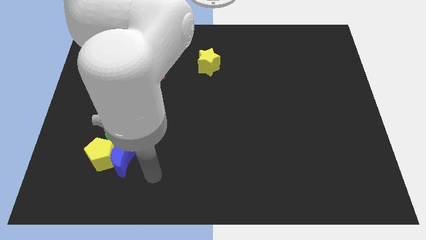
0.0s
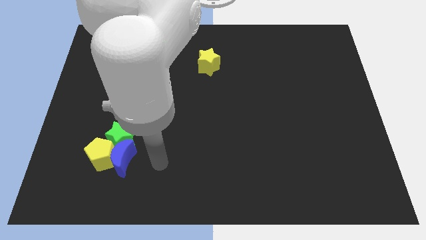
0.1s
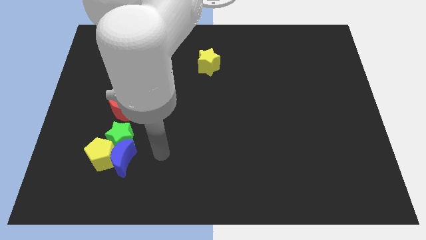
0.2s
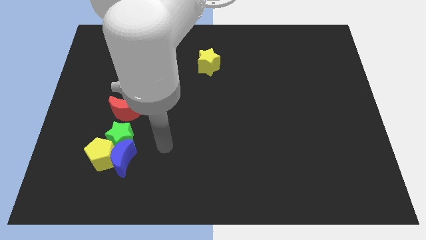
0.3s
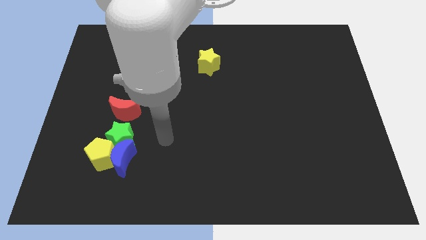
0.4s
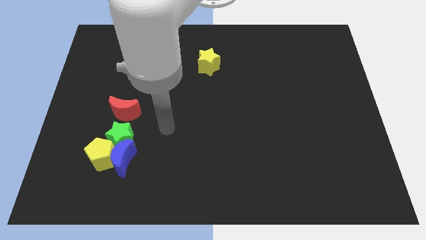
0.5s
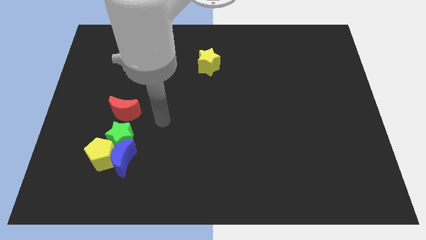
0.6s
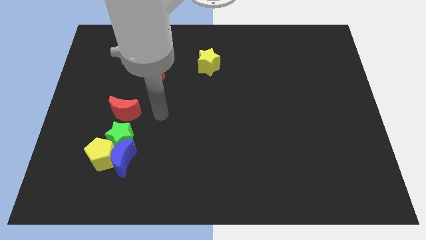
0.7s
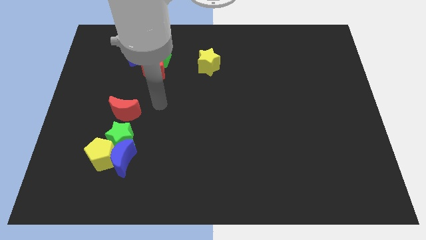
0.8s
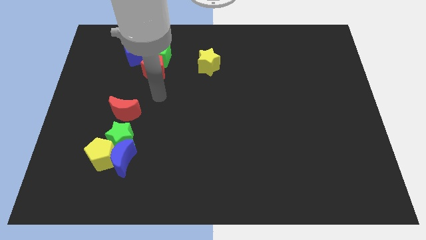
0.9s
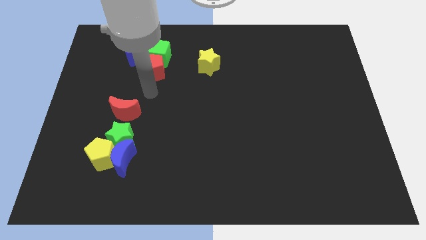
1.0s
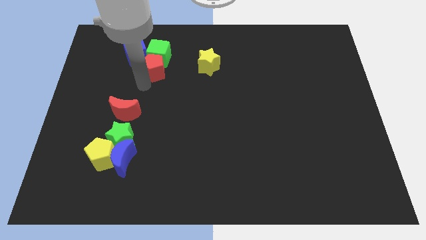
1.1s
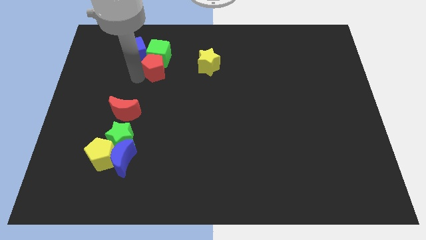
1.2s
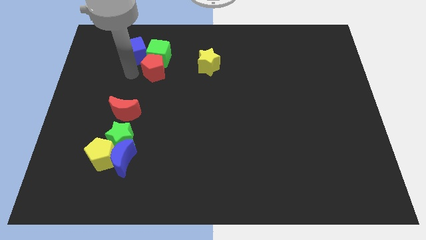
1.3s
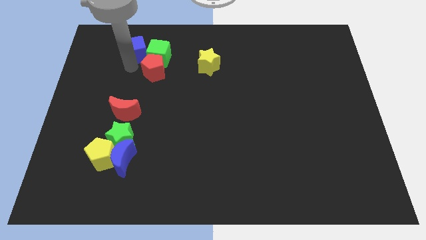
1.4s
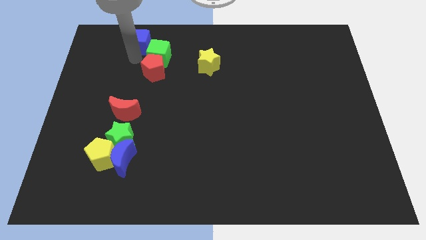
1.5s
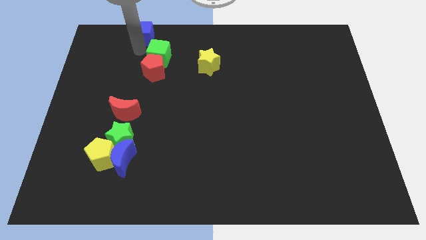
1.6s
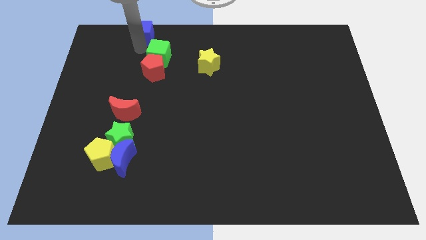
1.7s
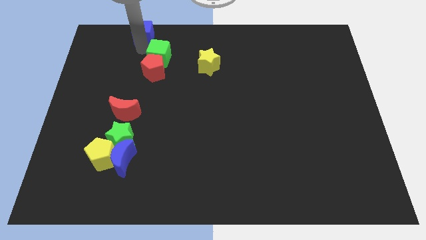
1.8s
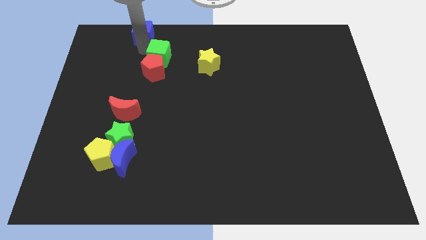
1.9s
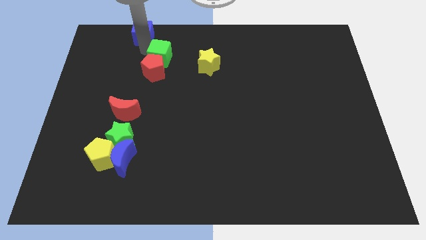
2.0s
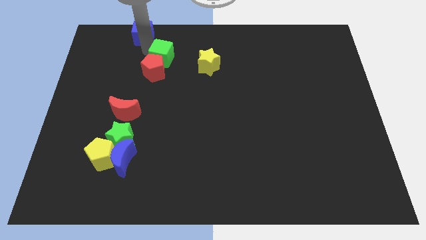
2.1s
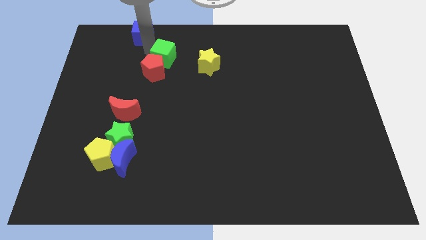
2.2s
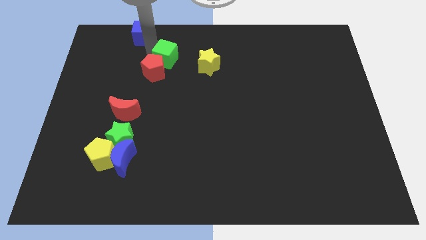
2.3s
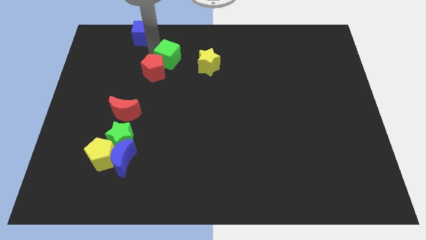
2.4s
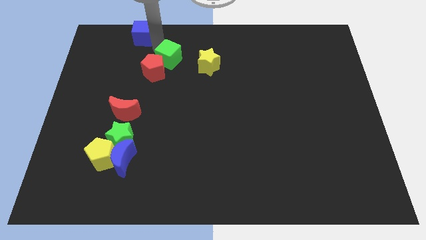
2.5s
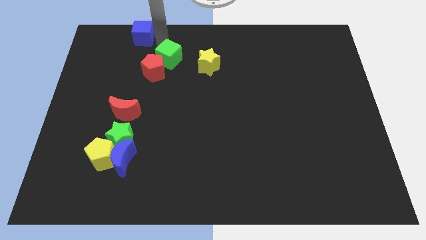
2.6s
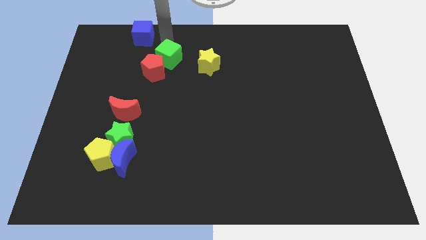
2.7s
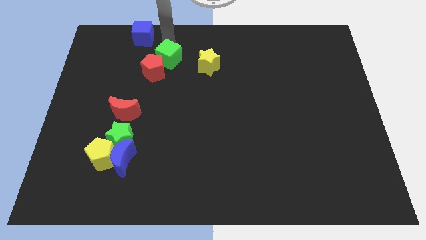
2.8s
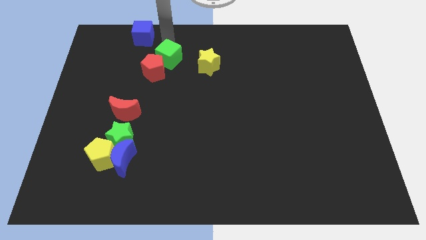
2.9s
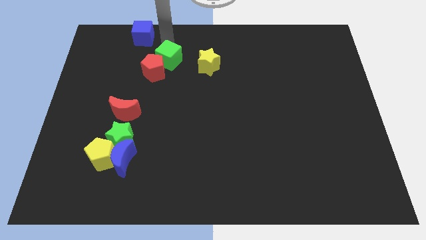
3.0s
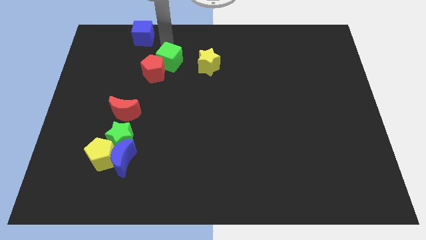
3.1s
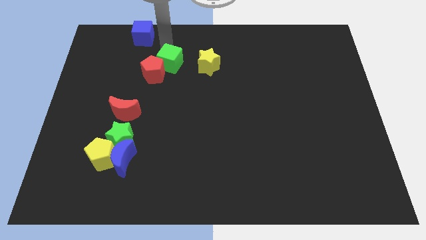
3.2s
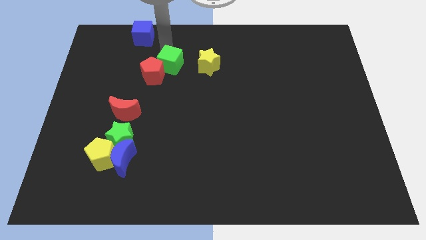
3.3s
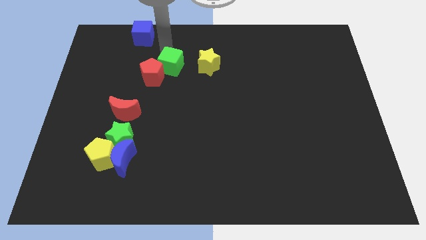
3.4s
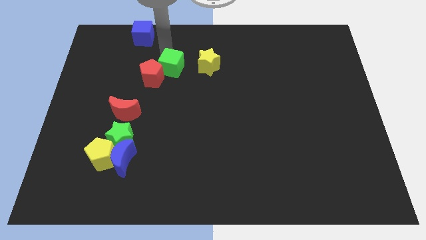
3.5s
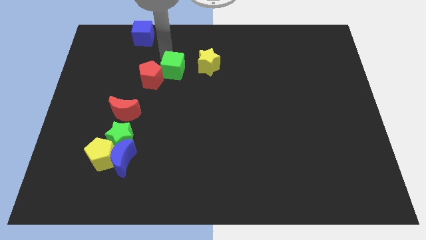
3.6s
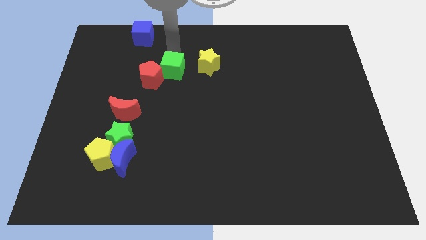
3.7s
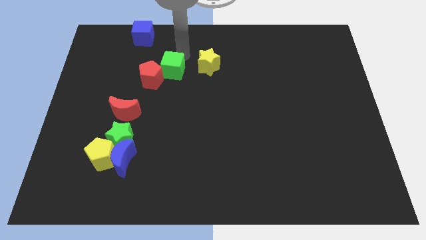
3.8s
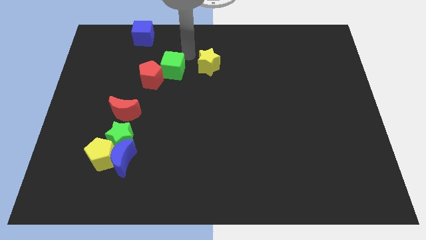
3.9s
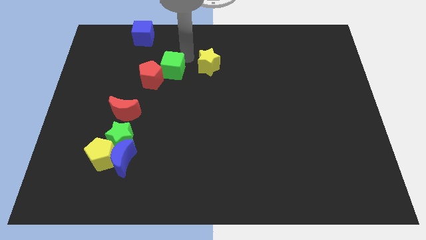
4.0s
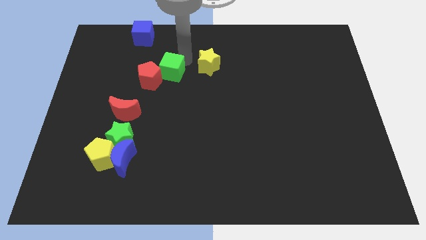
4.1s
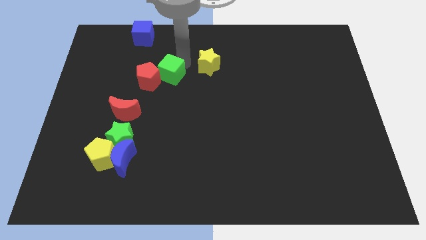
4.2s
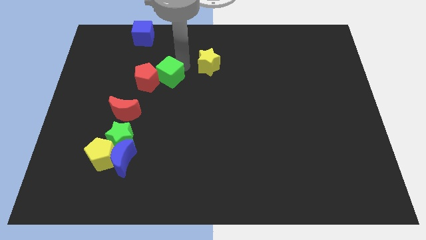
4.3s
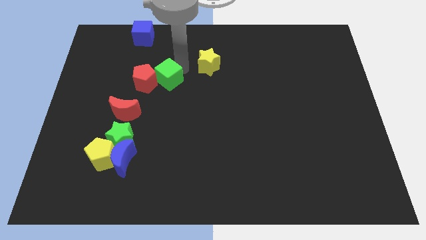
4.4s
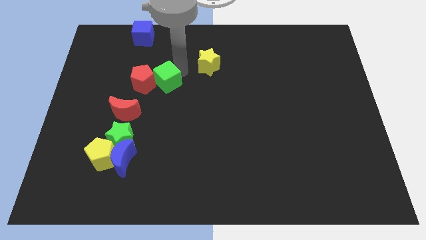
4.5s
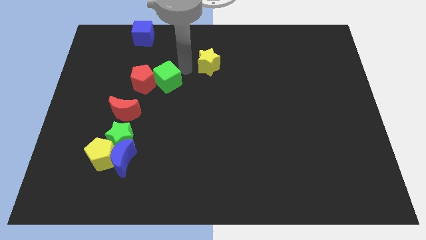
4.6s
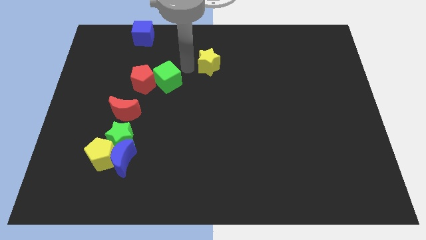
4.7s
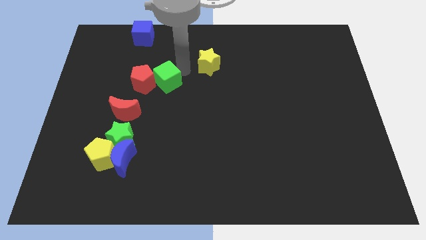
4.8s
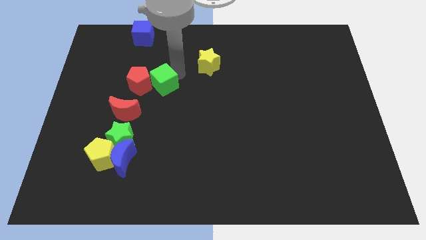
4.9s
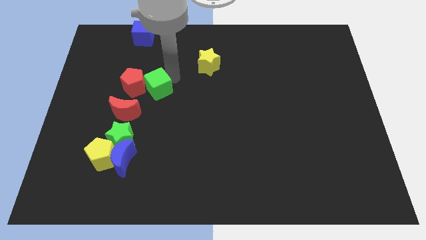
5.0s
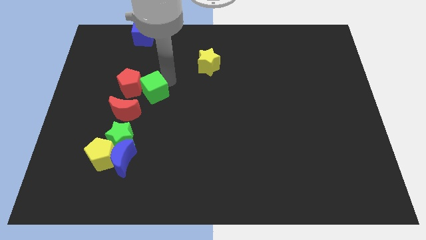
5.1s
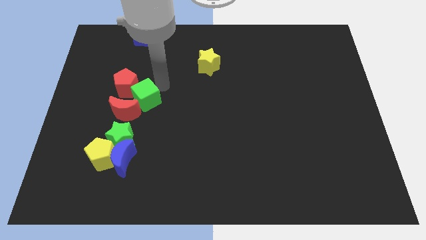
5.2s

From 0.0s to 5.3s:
move the green cube towards the red moon

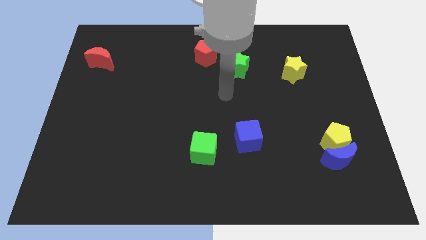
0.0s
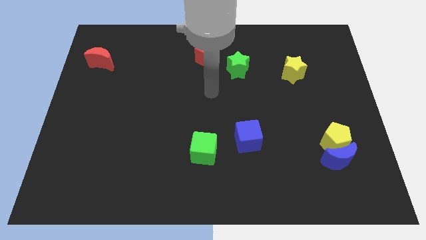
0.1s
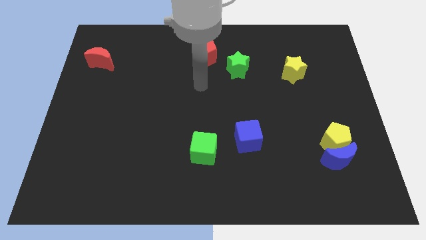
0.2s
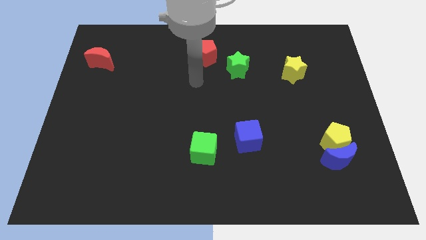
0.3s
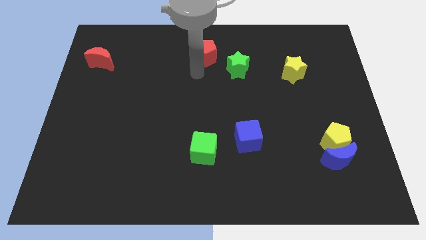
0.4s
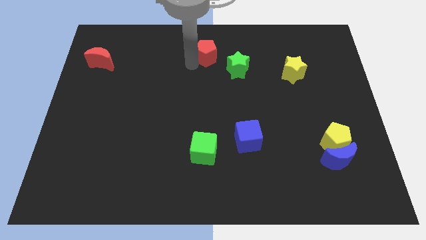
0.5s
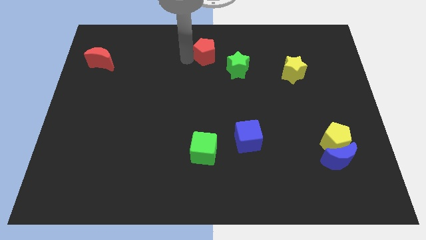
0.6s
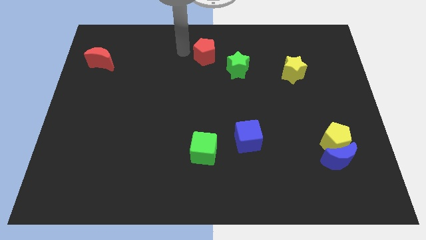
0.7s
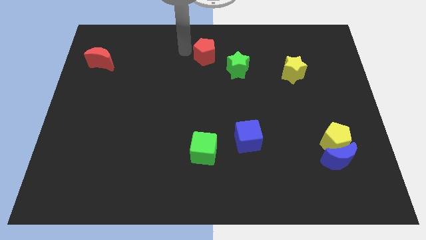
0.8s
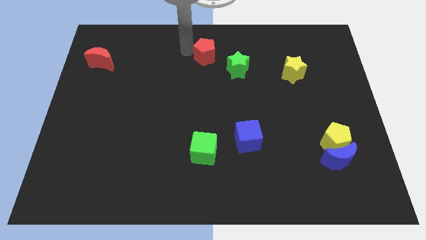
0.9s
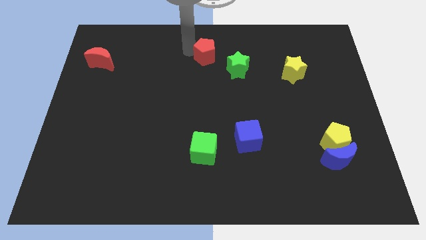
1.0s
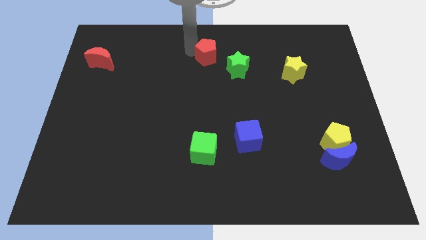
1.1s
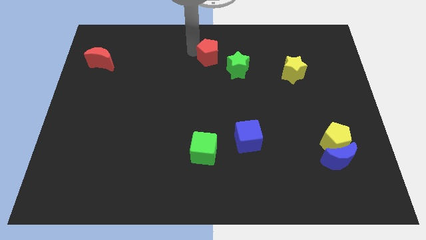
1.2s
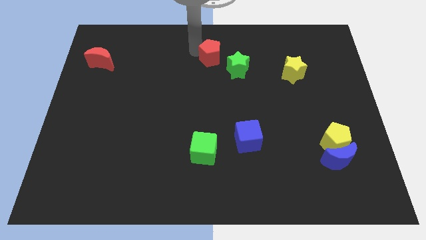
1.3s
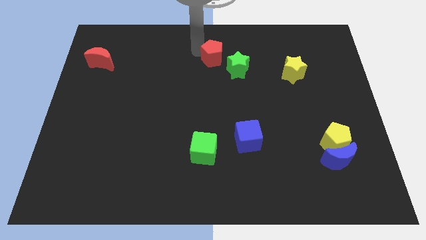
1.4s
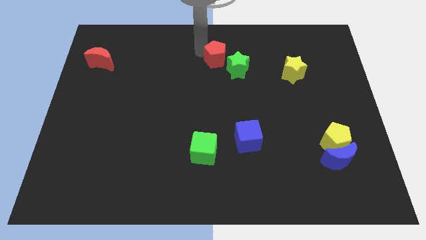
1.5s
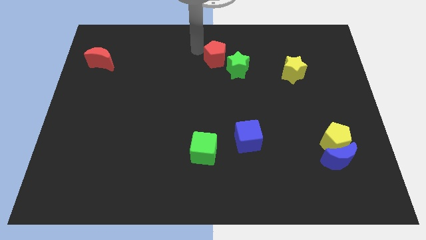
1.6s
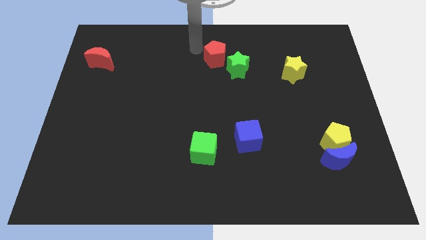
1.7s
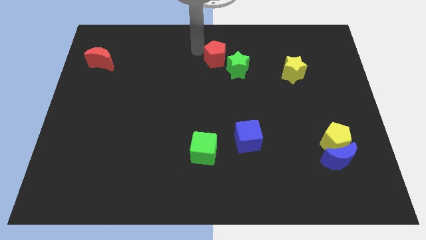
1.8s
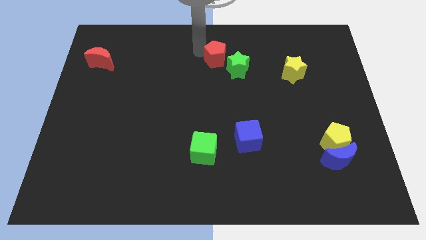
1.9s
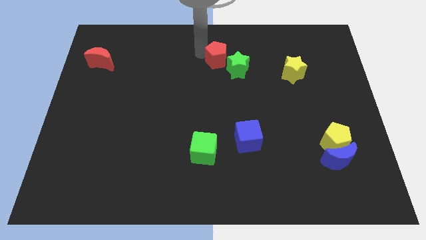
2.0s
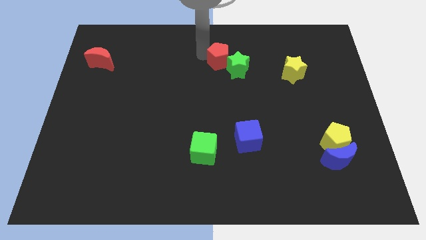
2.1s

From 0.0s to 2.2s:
put the red pentagon towards the green star
